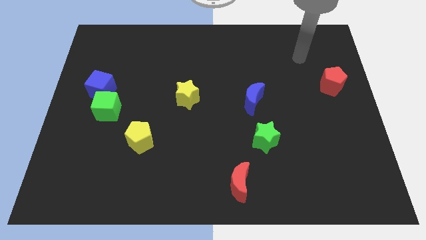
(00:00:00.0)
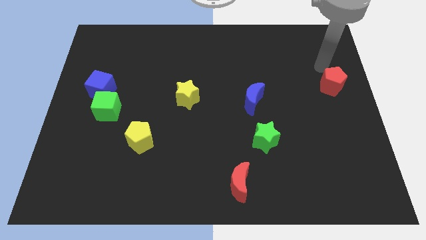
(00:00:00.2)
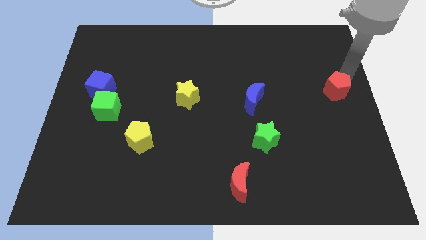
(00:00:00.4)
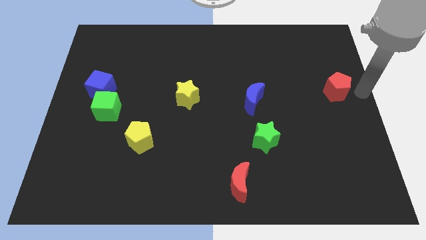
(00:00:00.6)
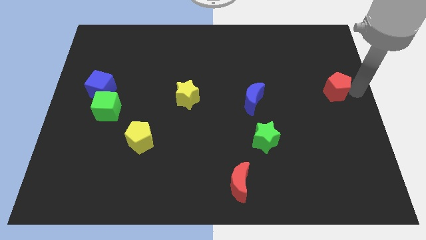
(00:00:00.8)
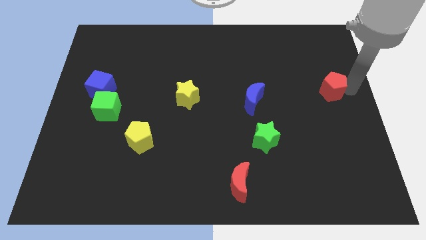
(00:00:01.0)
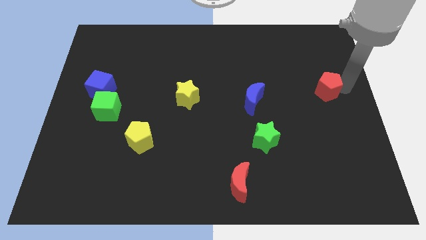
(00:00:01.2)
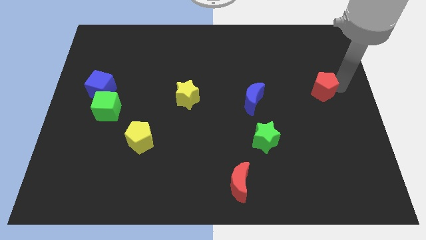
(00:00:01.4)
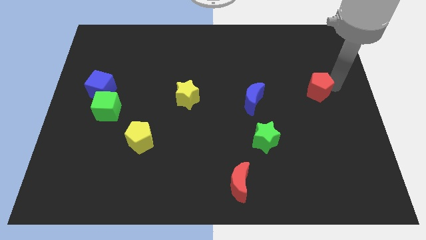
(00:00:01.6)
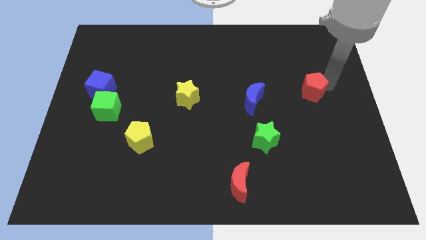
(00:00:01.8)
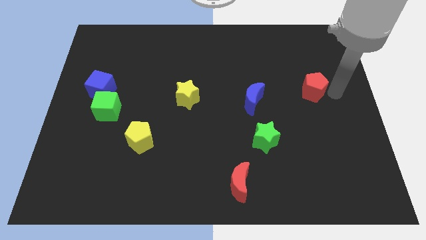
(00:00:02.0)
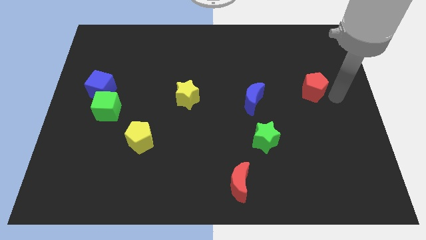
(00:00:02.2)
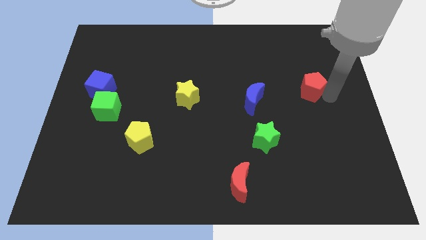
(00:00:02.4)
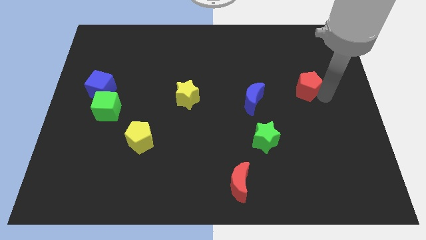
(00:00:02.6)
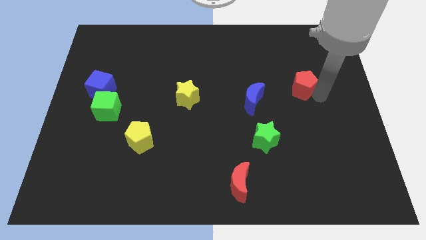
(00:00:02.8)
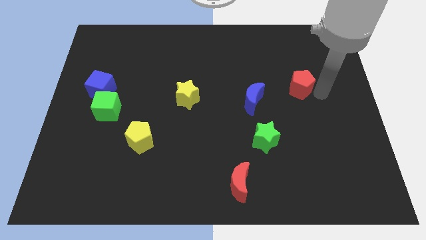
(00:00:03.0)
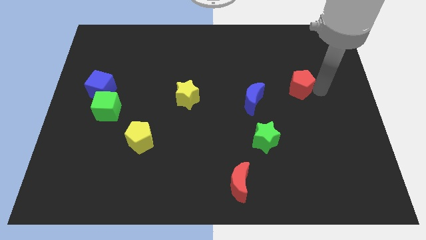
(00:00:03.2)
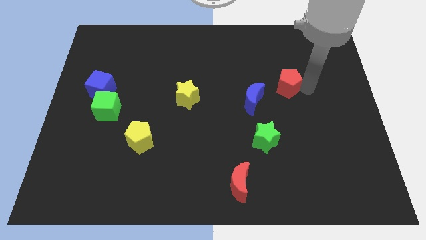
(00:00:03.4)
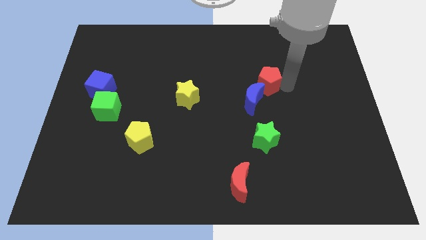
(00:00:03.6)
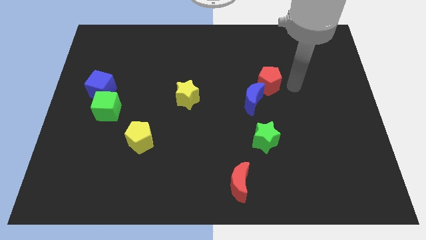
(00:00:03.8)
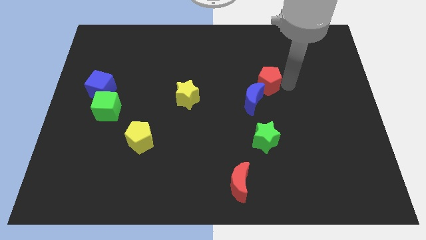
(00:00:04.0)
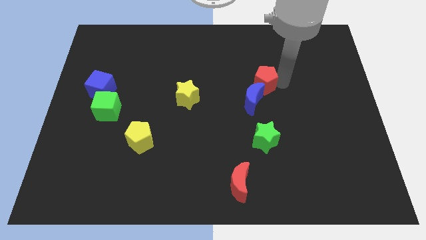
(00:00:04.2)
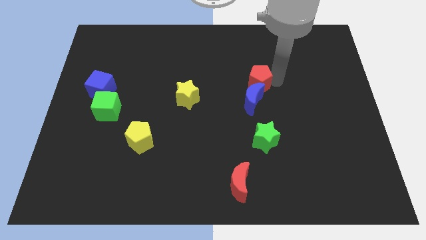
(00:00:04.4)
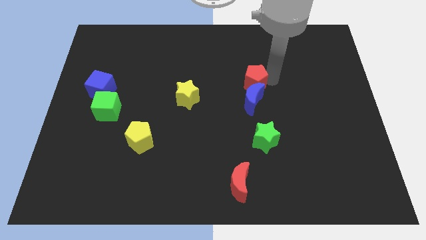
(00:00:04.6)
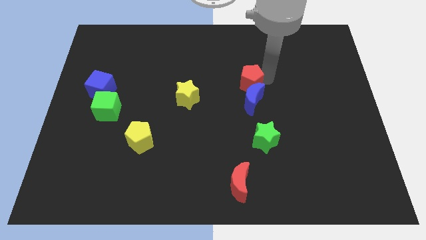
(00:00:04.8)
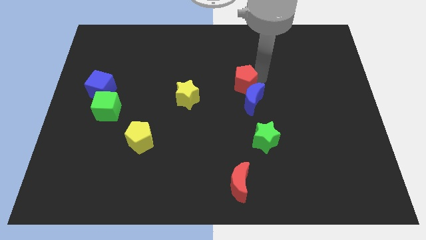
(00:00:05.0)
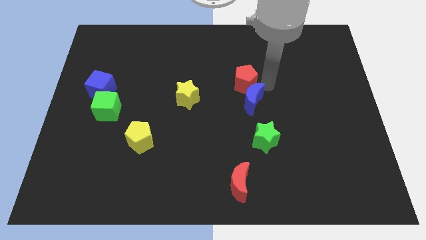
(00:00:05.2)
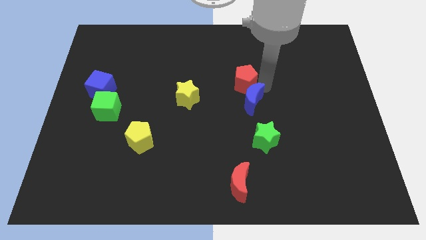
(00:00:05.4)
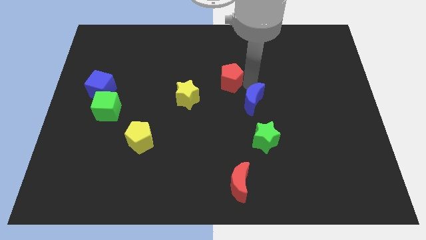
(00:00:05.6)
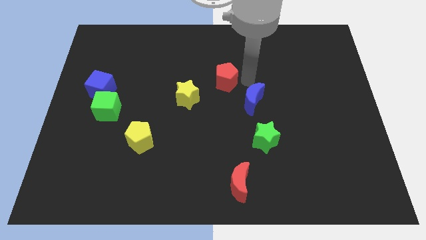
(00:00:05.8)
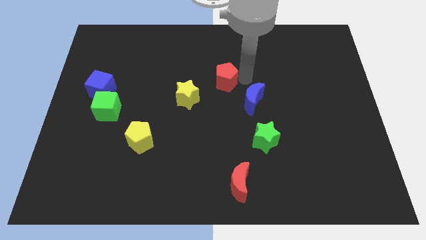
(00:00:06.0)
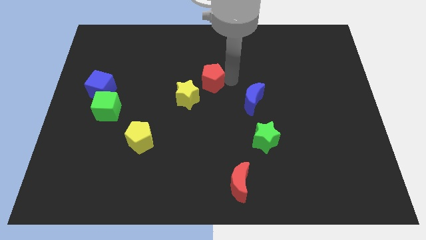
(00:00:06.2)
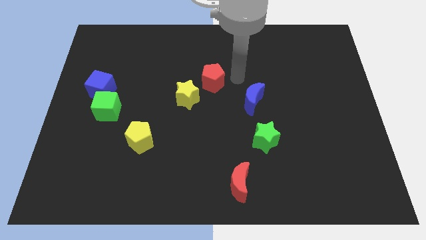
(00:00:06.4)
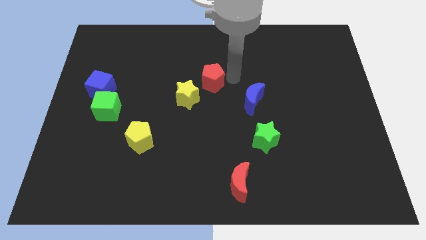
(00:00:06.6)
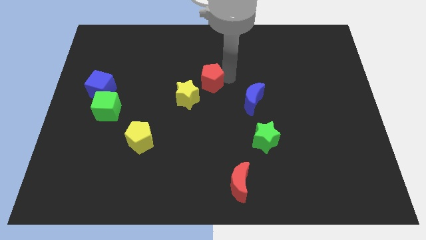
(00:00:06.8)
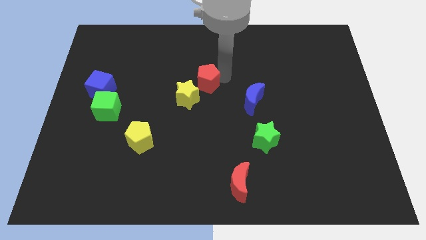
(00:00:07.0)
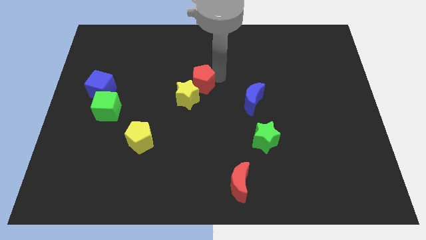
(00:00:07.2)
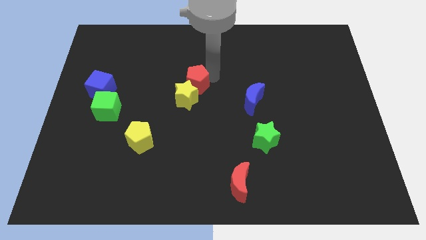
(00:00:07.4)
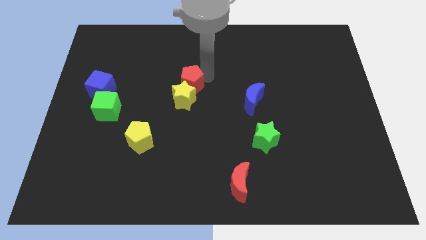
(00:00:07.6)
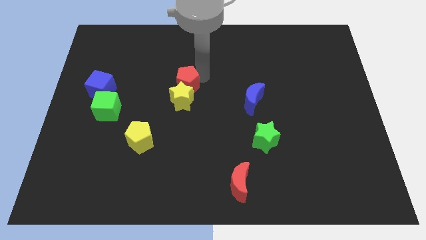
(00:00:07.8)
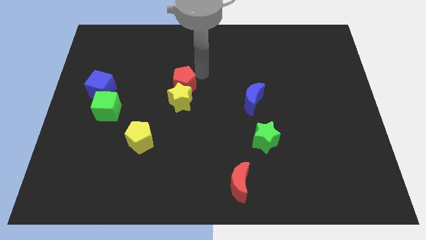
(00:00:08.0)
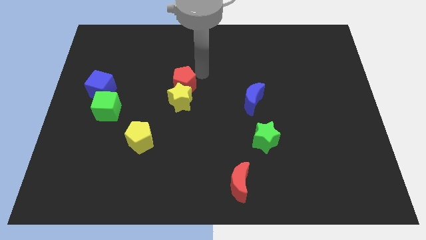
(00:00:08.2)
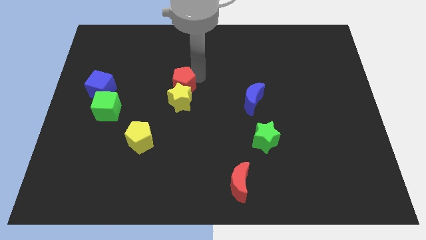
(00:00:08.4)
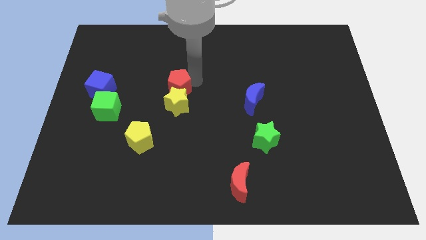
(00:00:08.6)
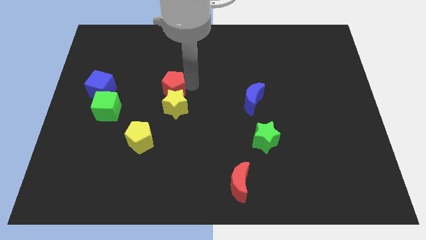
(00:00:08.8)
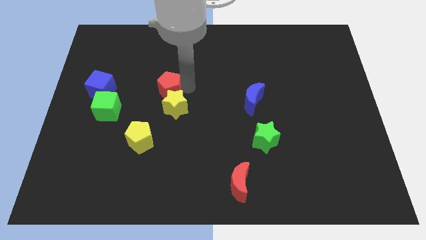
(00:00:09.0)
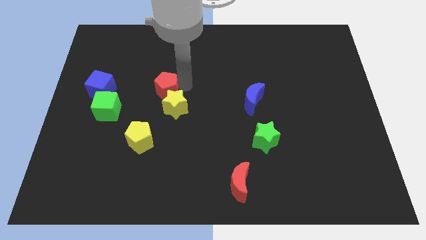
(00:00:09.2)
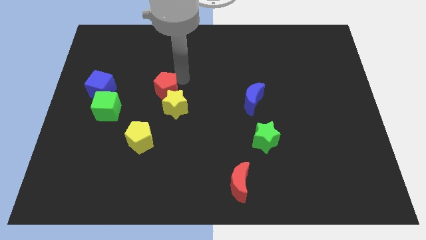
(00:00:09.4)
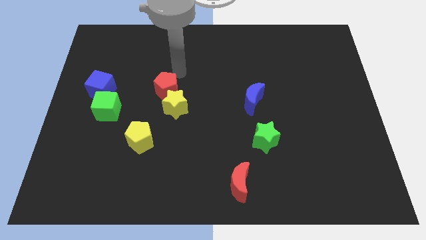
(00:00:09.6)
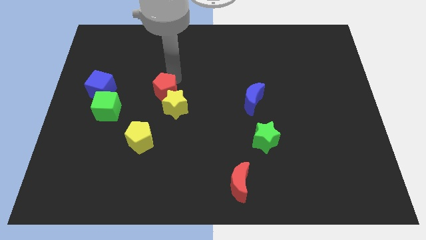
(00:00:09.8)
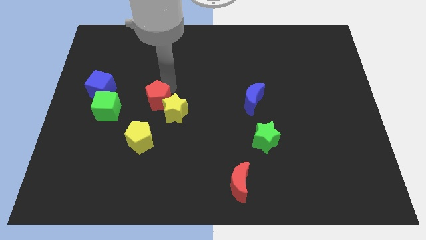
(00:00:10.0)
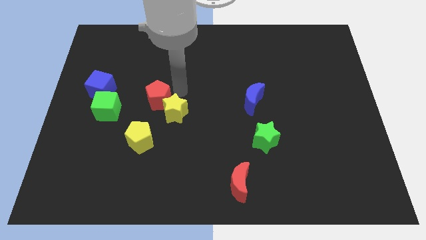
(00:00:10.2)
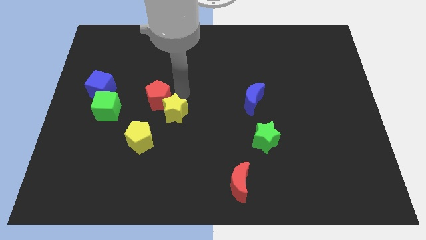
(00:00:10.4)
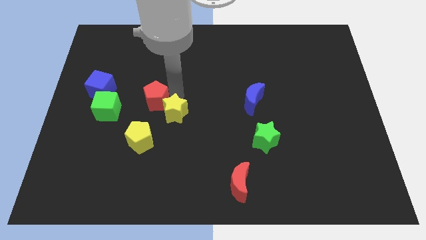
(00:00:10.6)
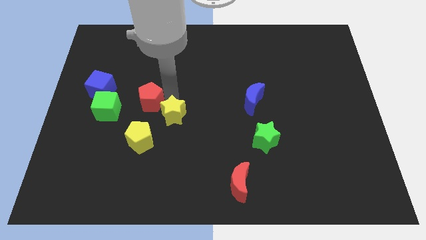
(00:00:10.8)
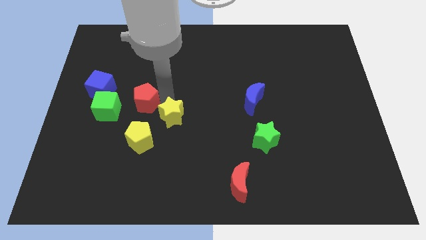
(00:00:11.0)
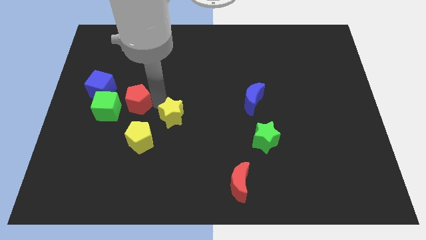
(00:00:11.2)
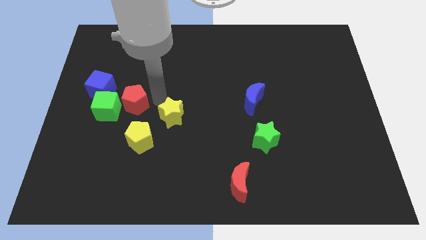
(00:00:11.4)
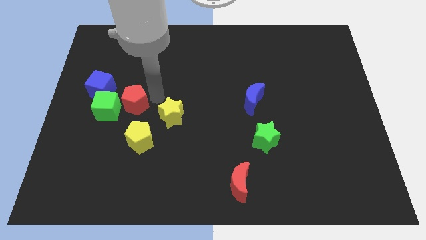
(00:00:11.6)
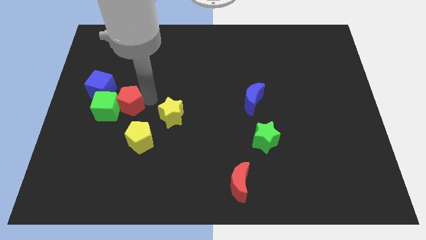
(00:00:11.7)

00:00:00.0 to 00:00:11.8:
move the red pentagon next to the green cube

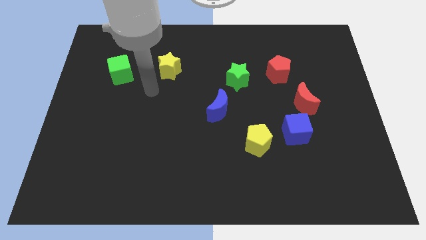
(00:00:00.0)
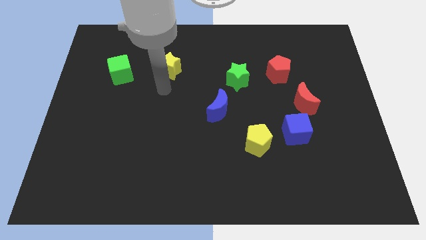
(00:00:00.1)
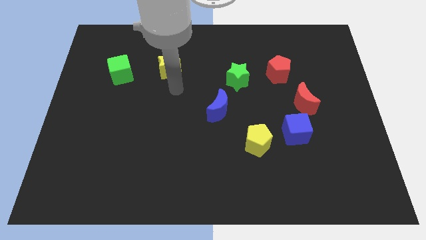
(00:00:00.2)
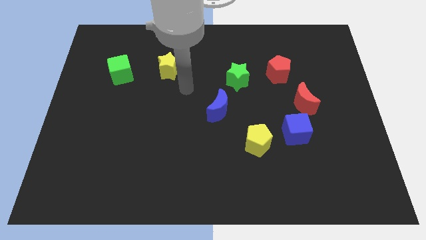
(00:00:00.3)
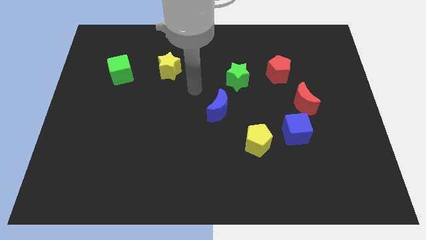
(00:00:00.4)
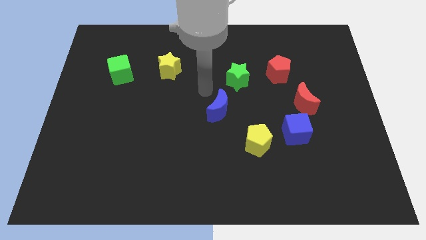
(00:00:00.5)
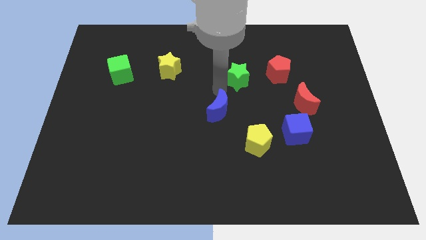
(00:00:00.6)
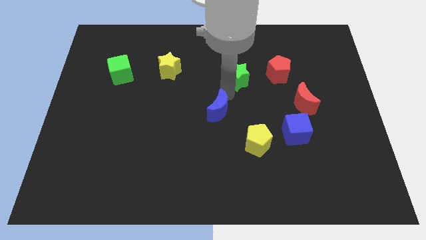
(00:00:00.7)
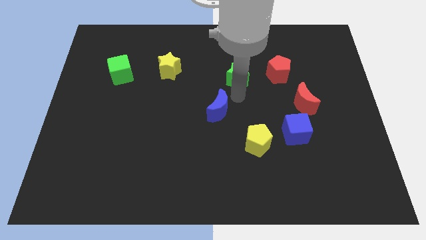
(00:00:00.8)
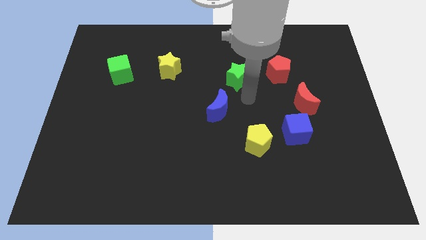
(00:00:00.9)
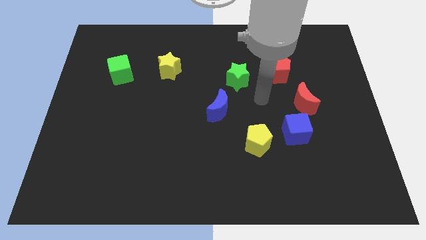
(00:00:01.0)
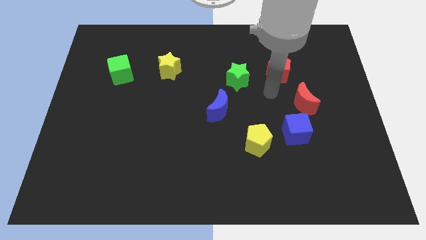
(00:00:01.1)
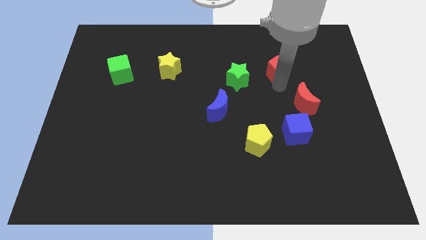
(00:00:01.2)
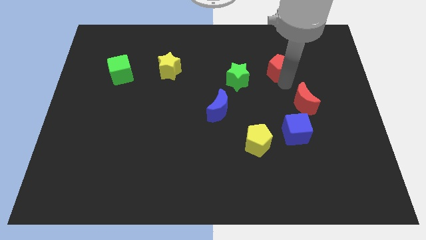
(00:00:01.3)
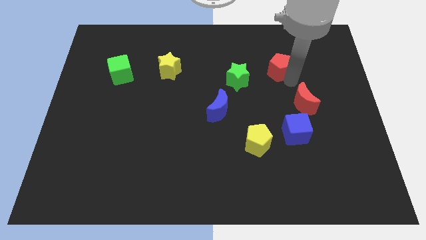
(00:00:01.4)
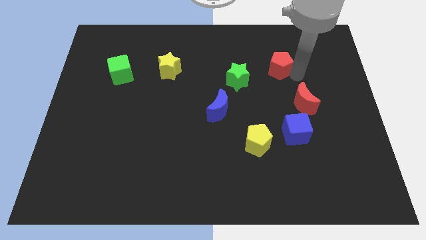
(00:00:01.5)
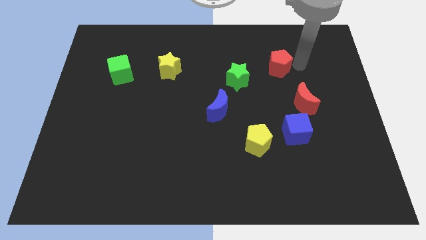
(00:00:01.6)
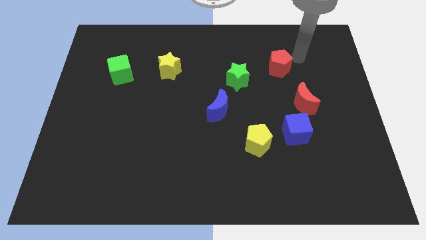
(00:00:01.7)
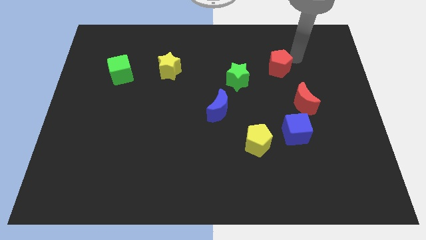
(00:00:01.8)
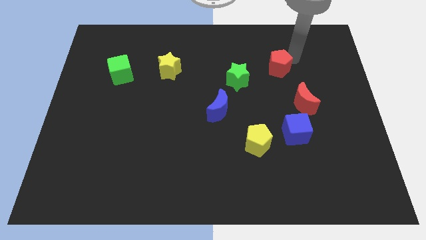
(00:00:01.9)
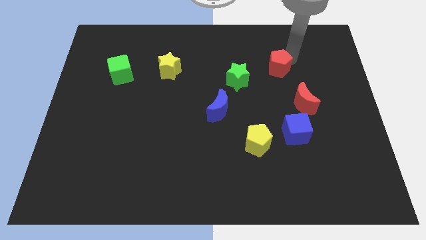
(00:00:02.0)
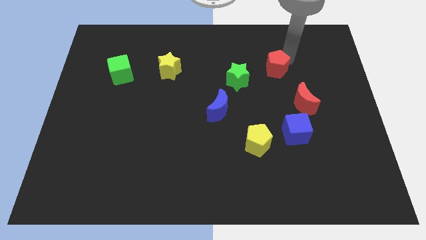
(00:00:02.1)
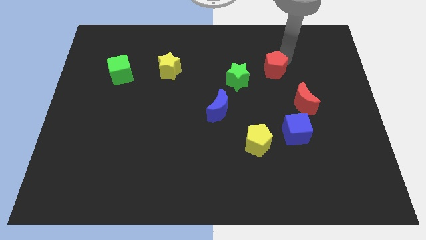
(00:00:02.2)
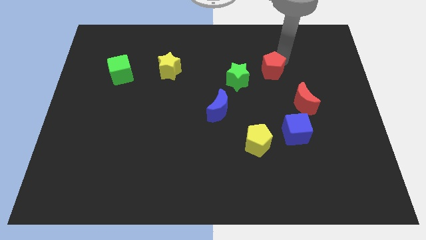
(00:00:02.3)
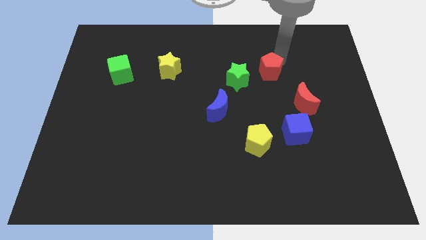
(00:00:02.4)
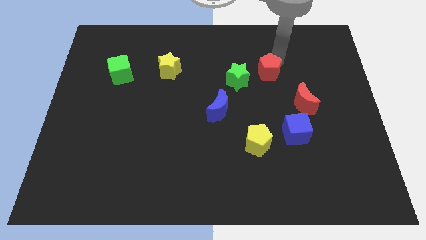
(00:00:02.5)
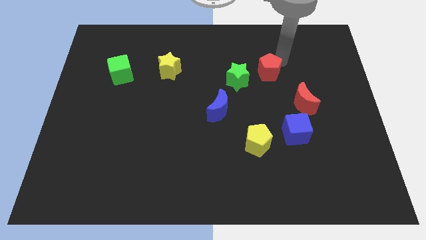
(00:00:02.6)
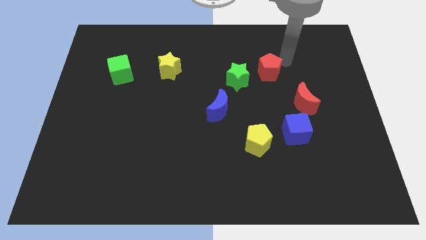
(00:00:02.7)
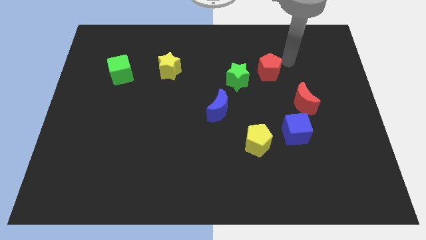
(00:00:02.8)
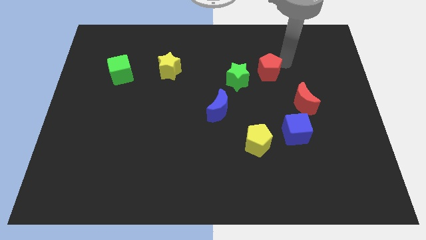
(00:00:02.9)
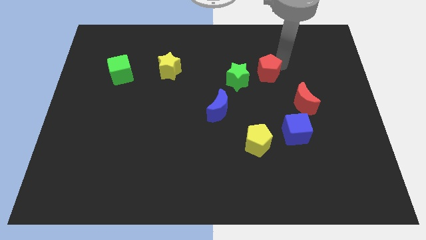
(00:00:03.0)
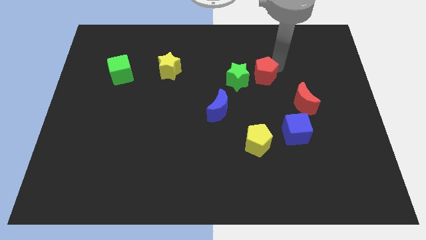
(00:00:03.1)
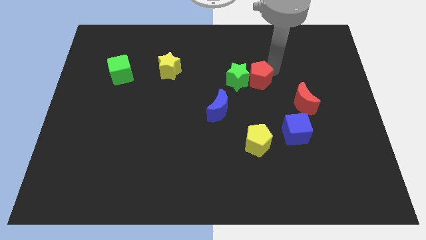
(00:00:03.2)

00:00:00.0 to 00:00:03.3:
move the red pentagon close to the green star
